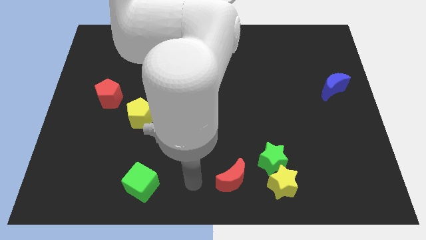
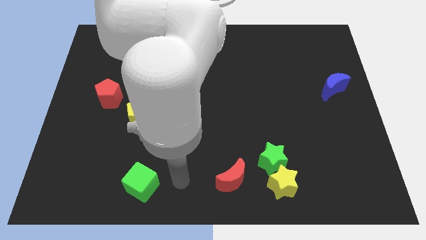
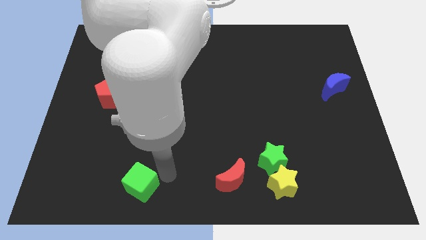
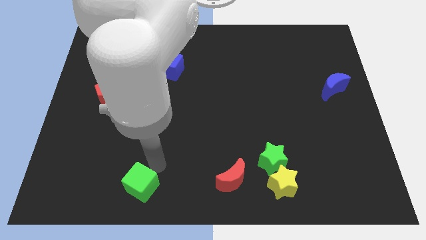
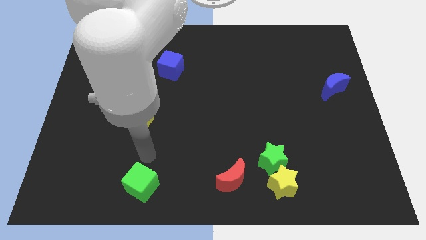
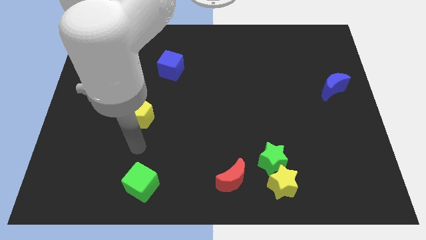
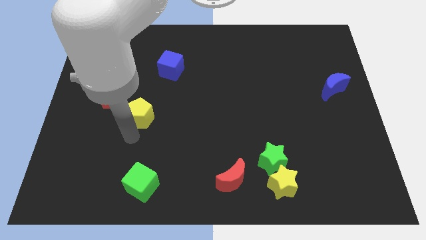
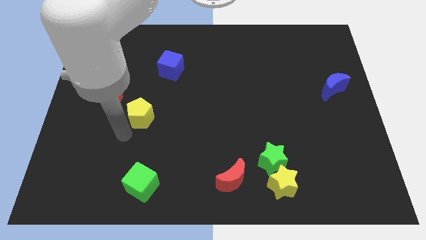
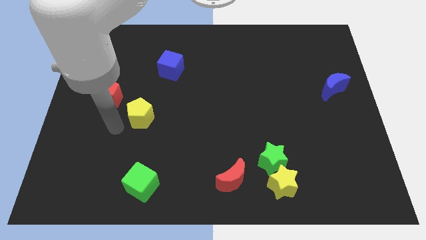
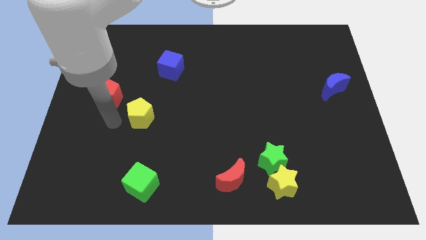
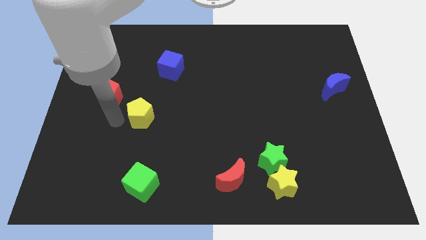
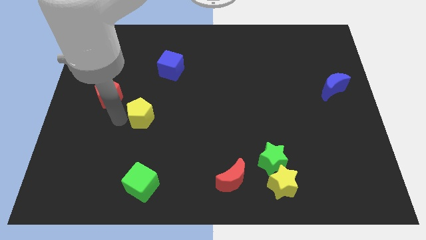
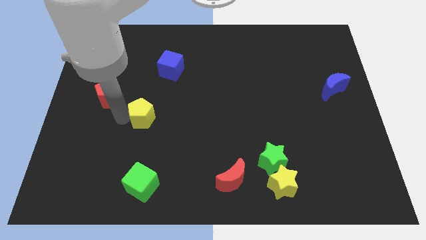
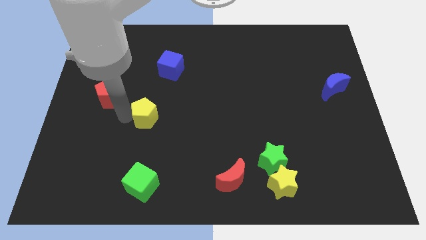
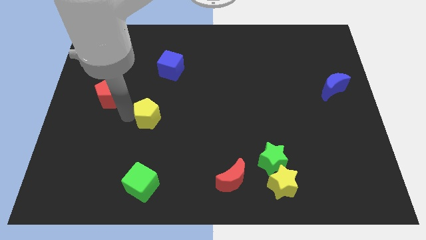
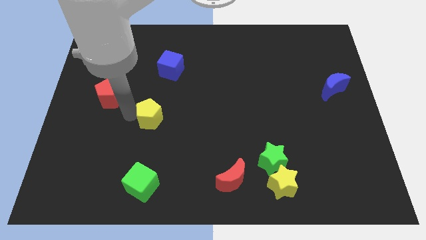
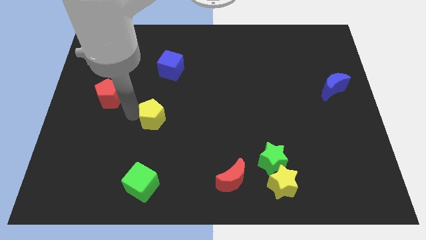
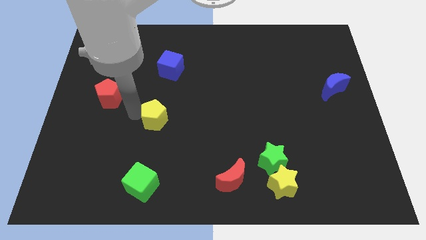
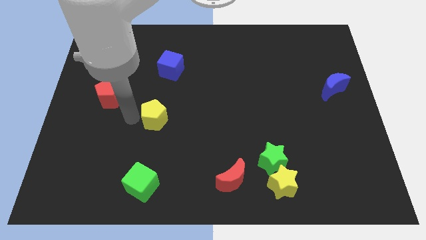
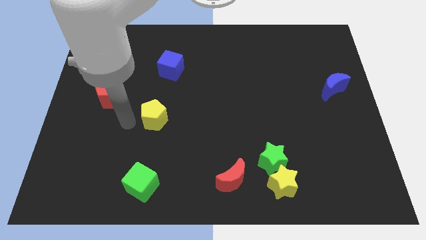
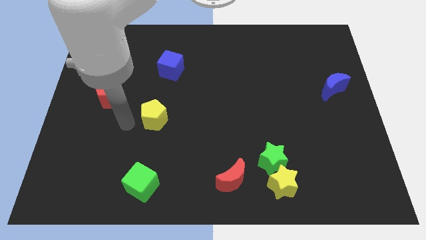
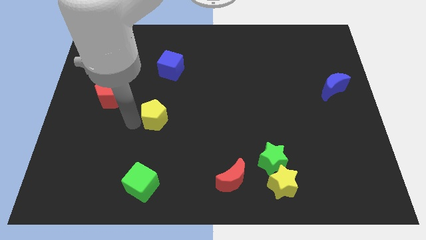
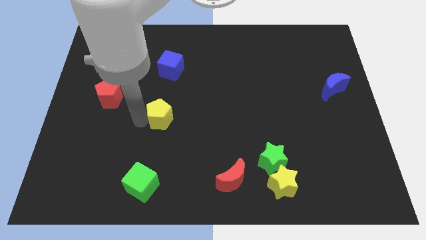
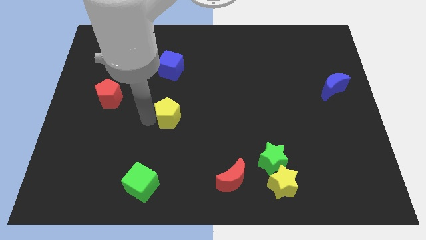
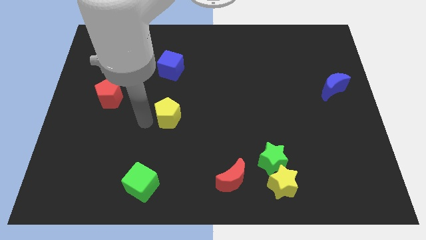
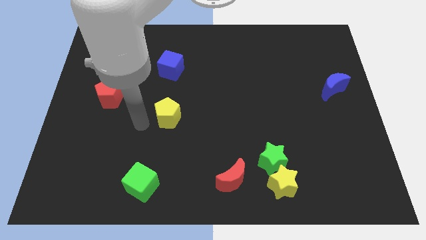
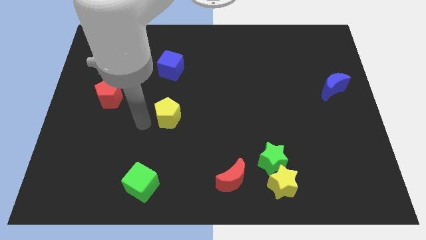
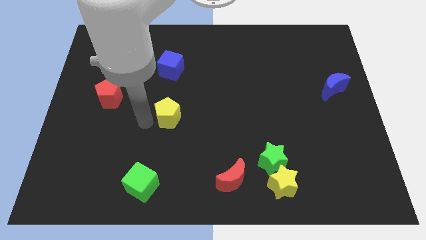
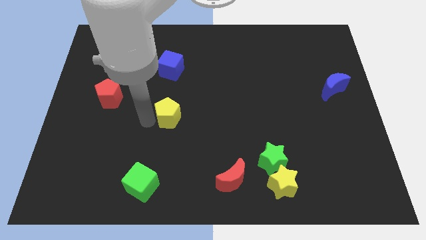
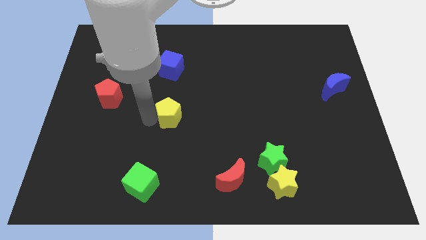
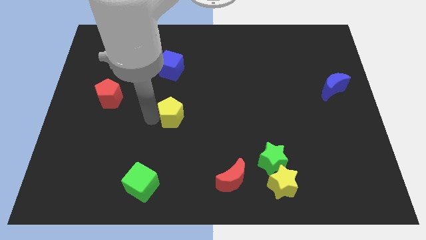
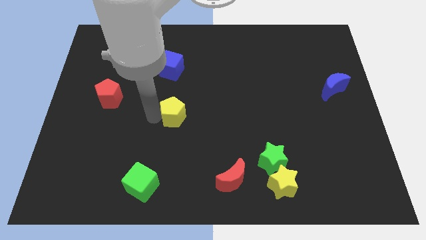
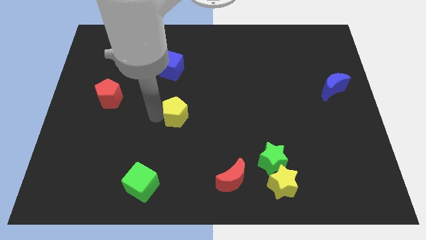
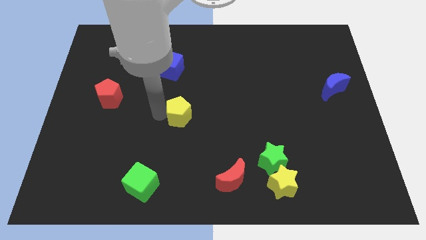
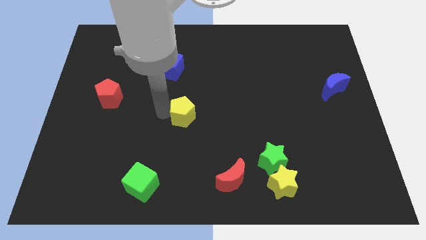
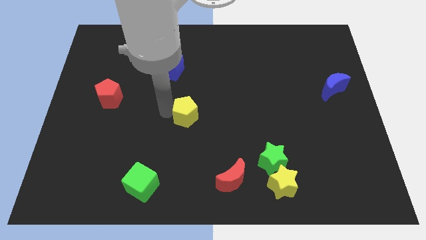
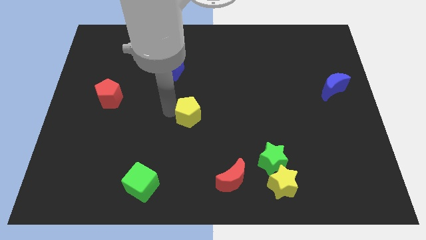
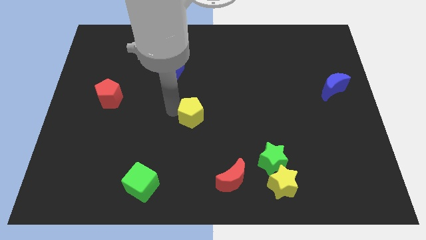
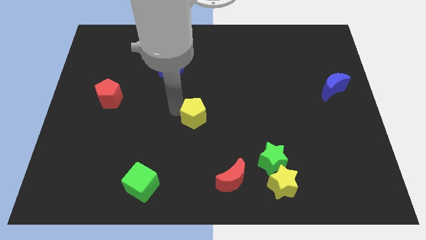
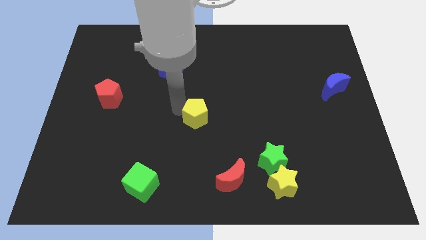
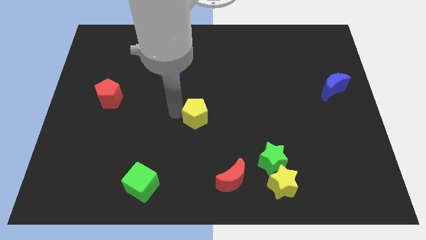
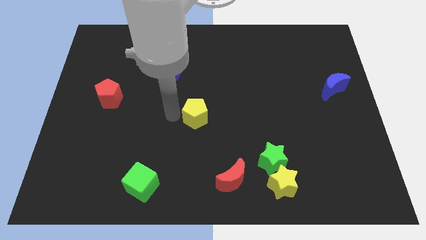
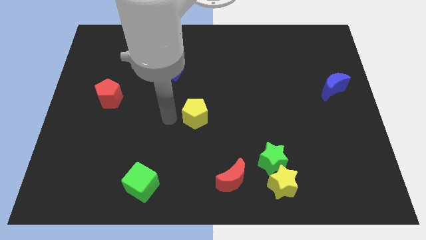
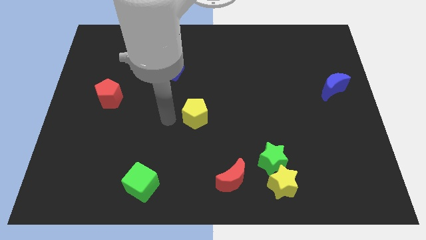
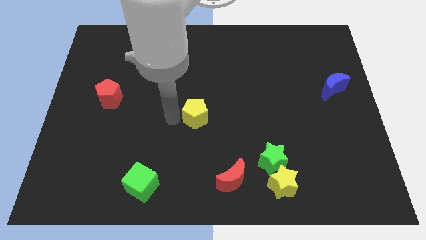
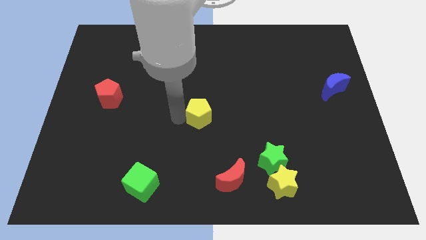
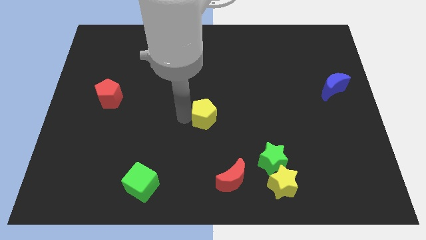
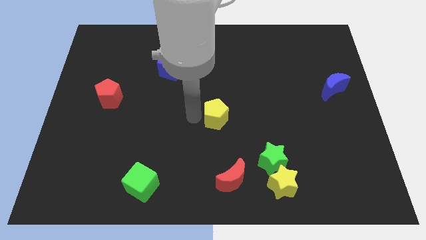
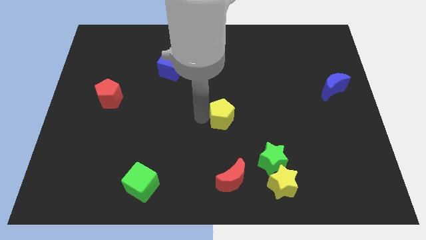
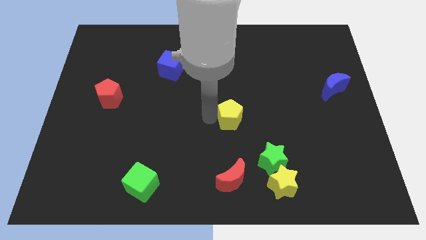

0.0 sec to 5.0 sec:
move the yellow pentagon right

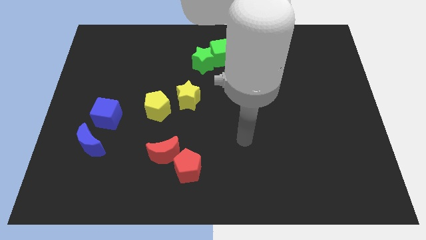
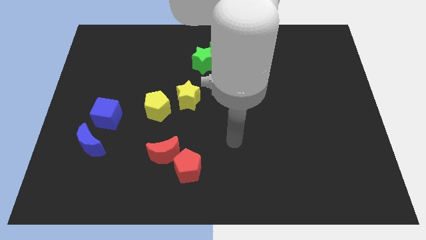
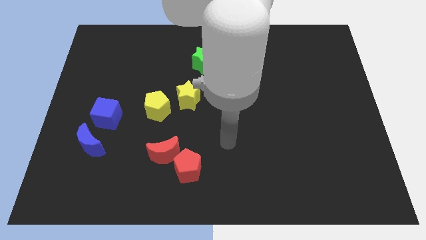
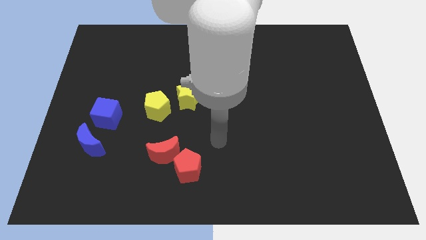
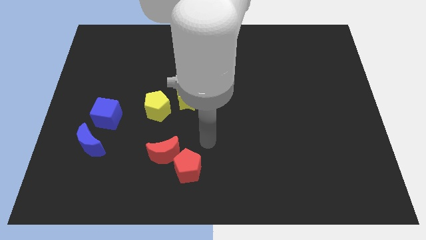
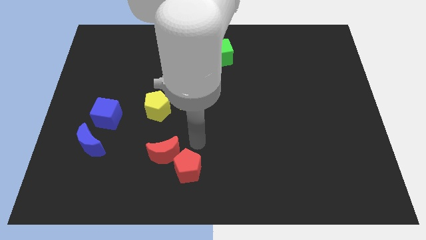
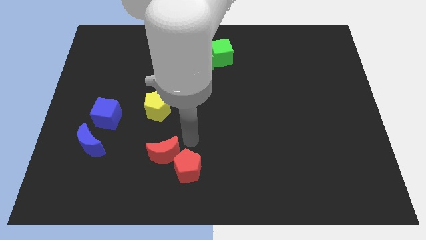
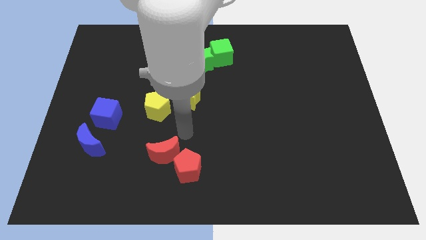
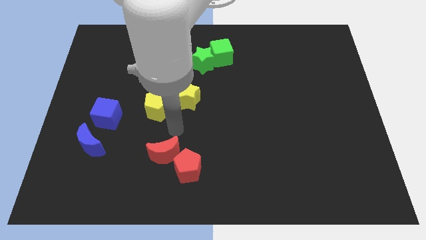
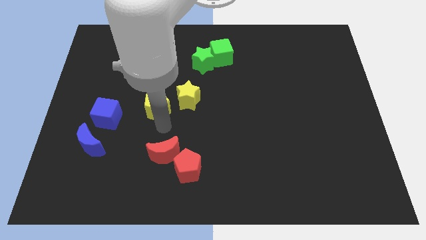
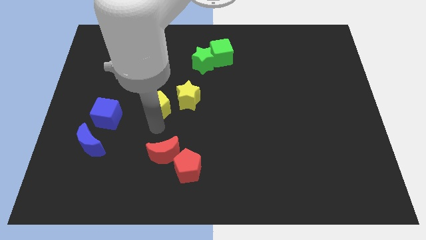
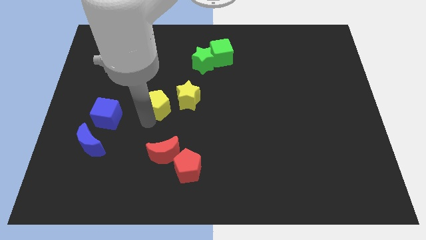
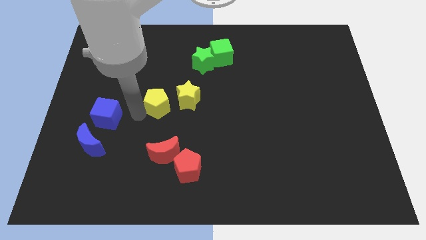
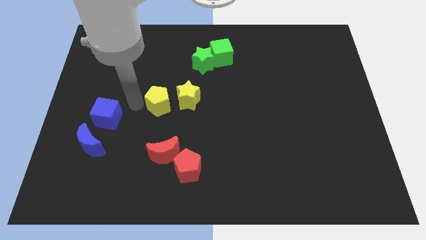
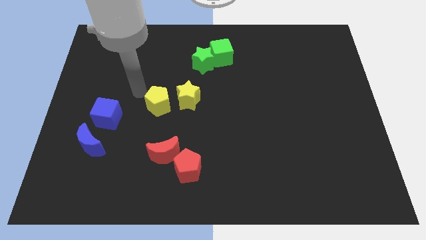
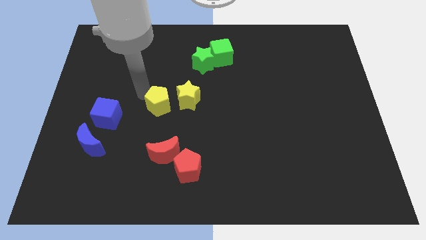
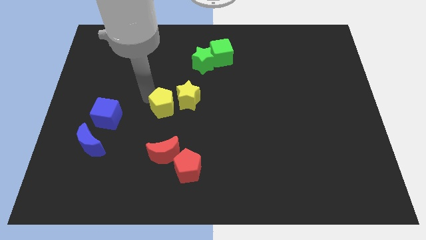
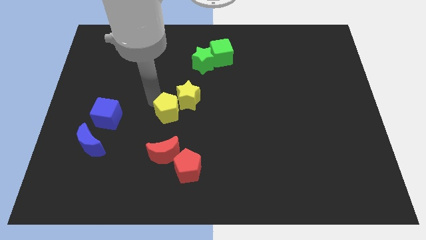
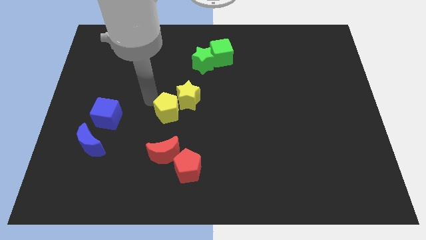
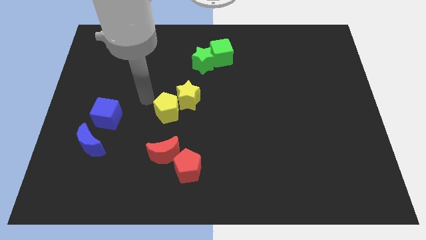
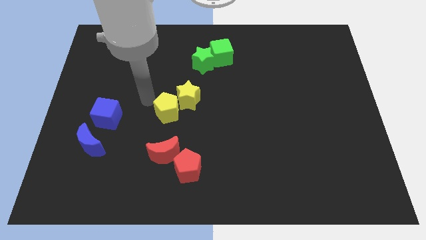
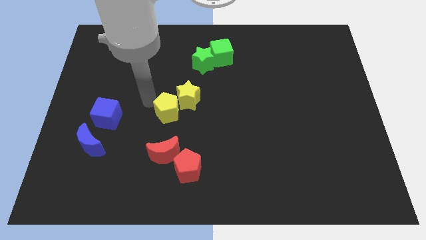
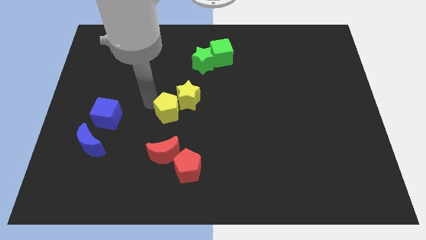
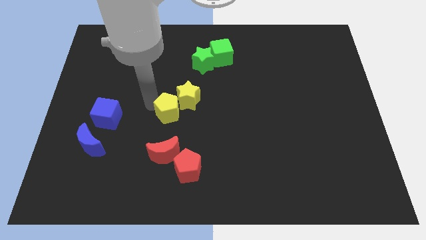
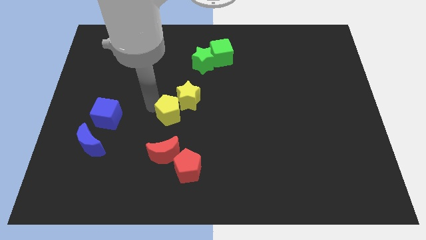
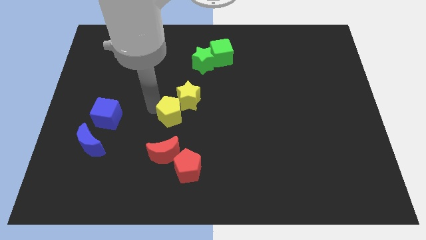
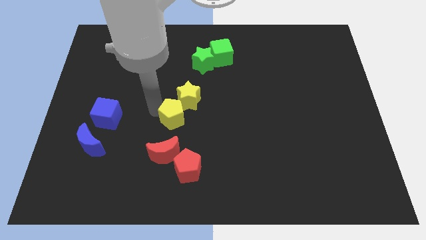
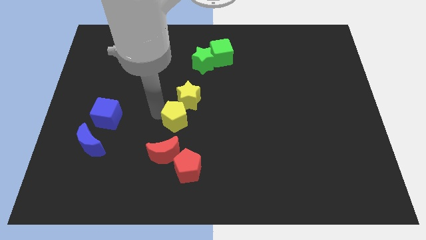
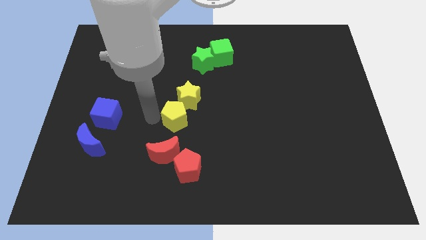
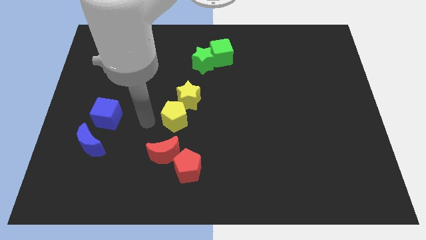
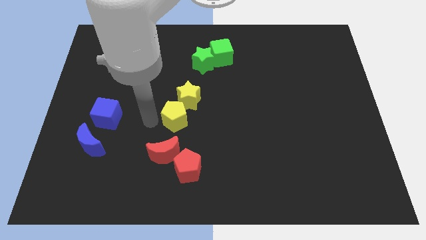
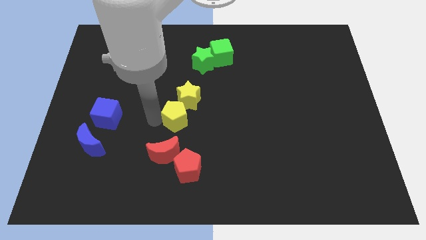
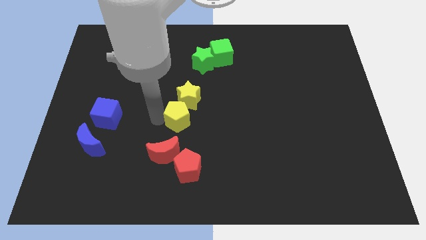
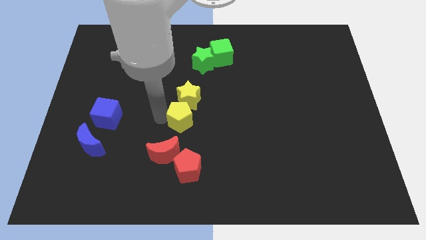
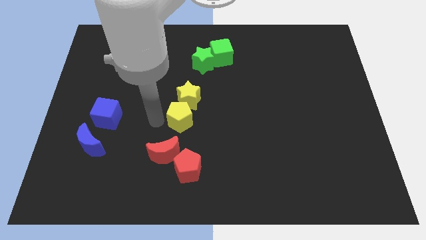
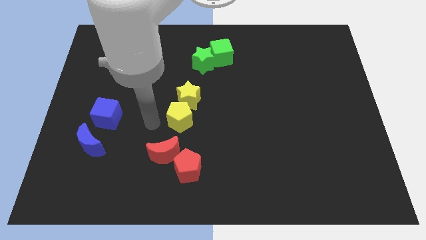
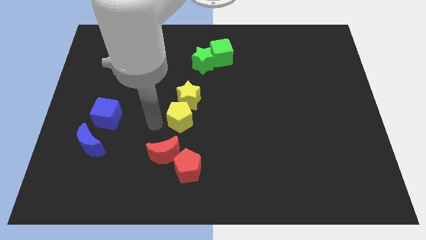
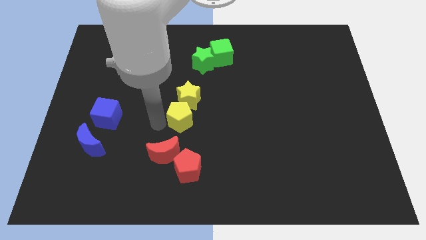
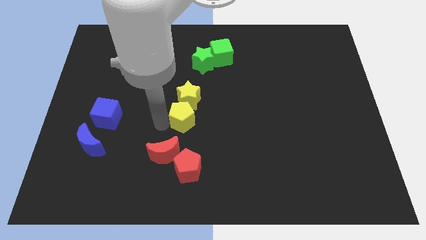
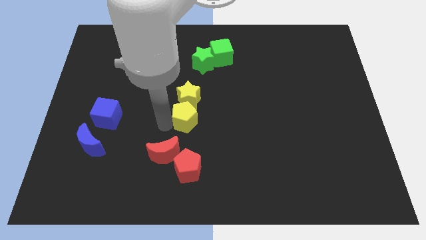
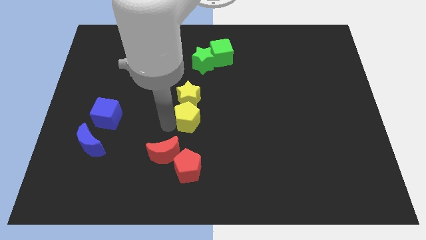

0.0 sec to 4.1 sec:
slightly push the yellow pentagon to the right
